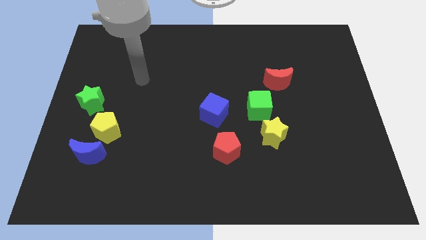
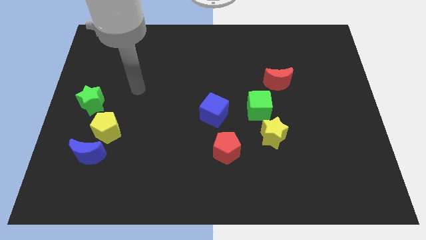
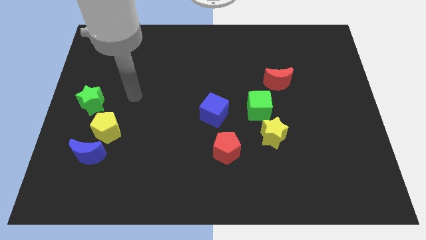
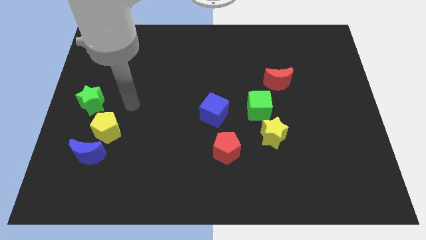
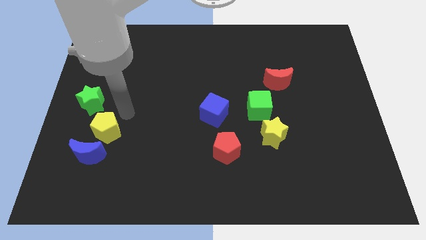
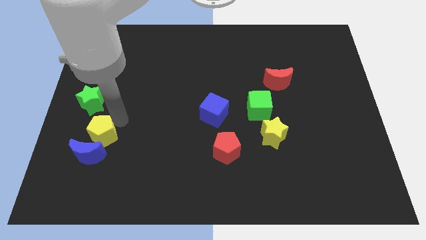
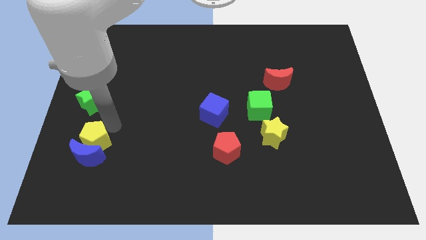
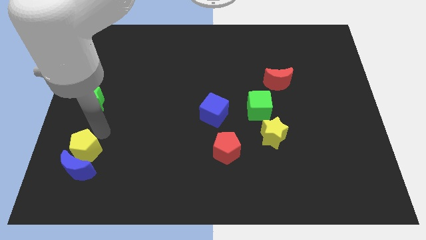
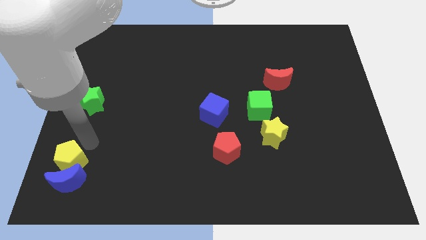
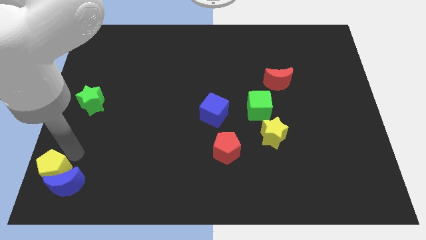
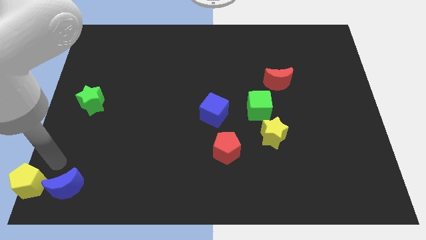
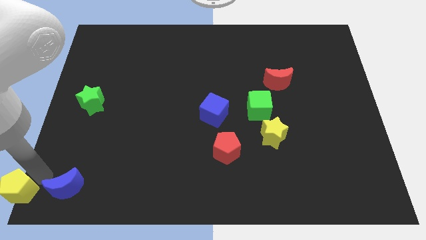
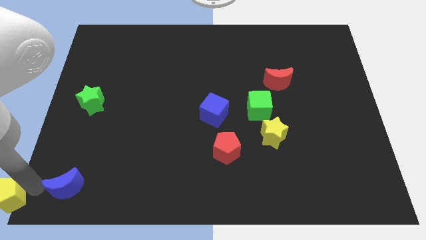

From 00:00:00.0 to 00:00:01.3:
move the blue moon away from the yellow pentagon

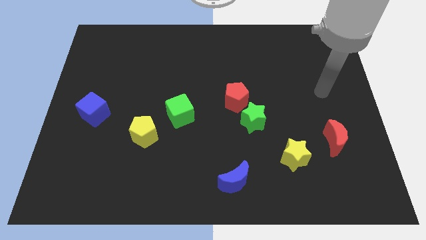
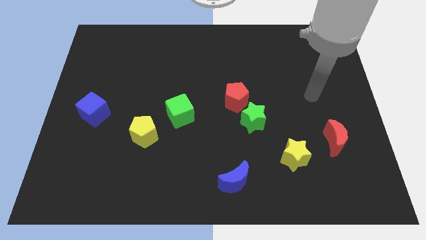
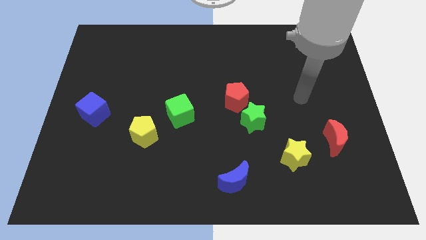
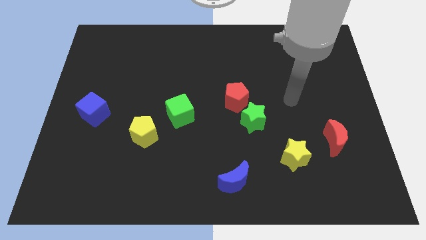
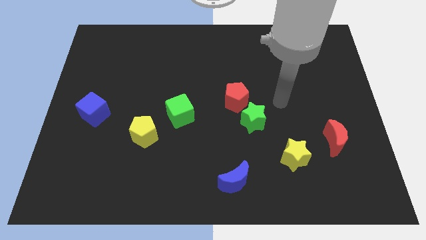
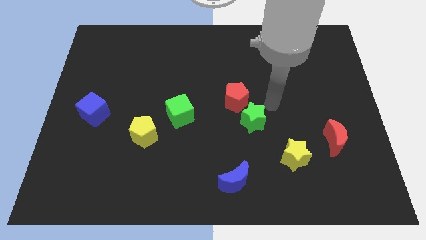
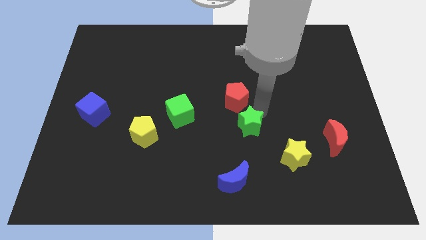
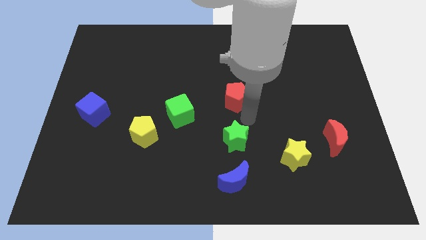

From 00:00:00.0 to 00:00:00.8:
separate the red pentagon from the green star

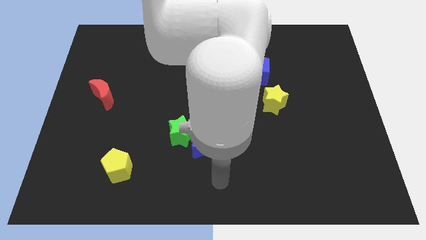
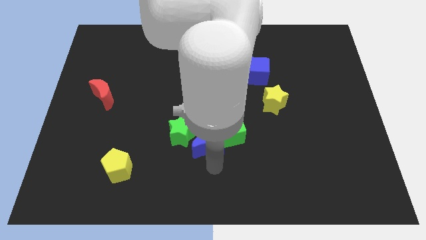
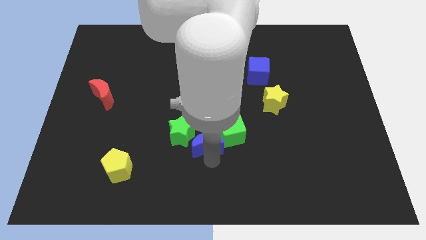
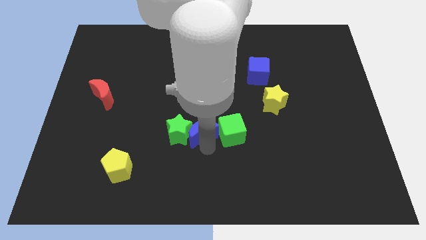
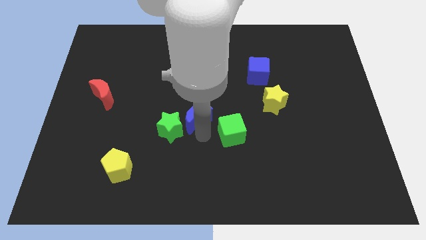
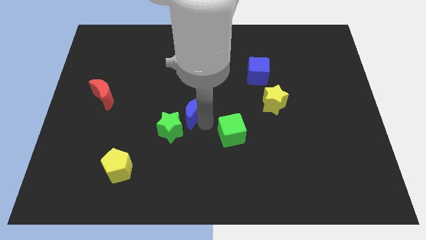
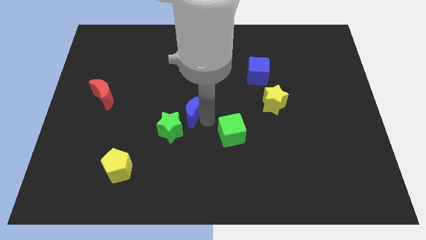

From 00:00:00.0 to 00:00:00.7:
pull the green cube apart from the blue moon

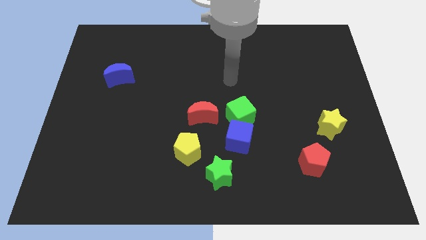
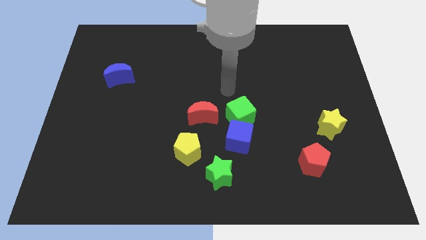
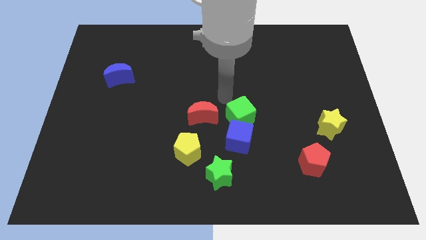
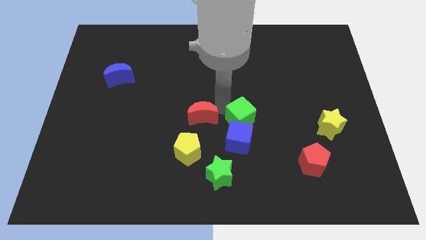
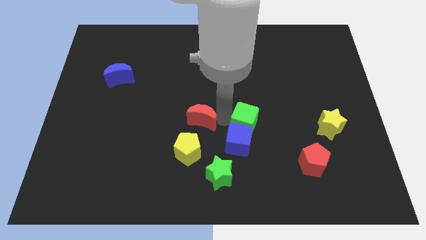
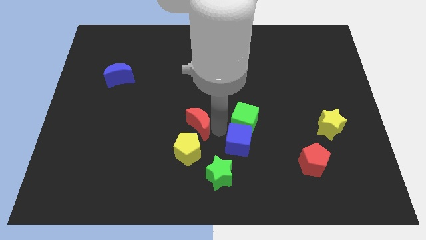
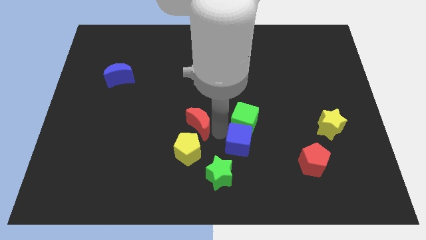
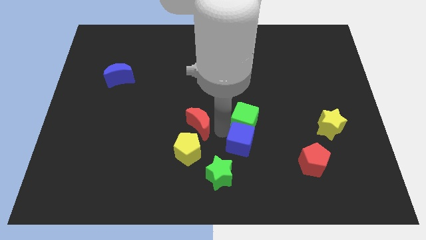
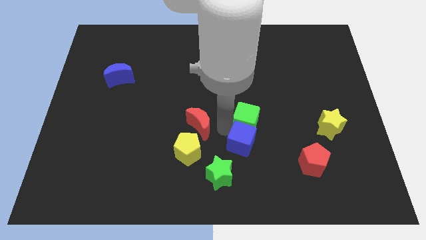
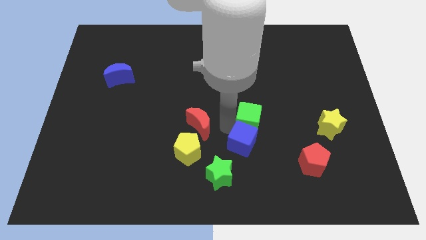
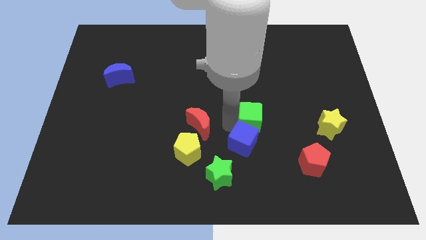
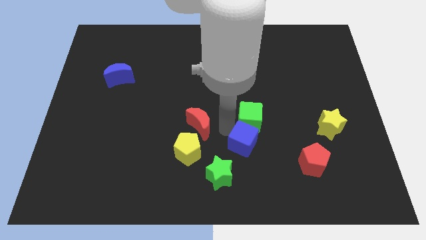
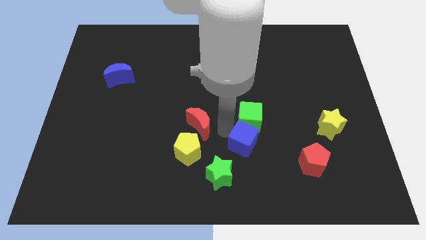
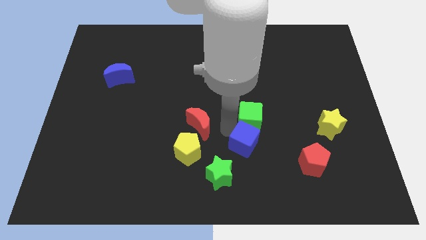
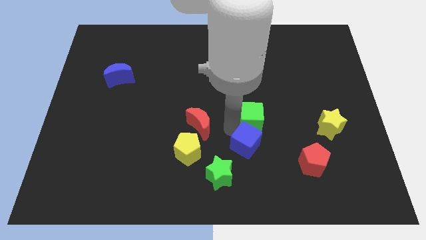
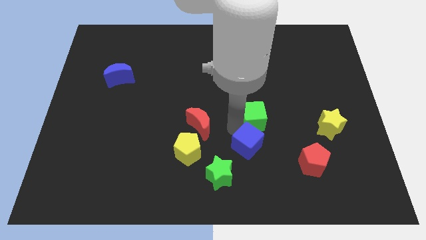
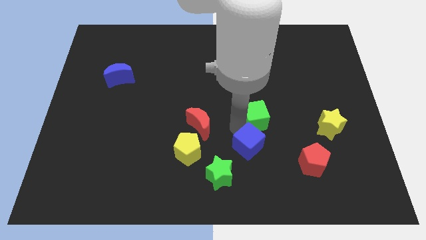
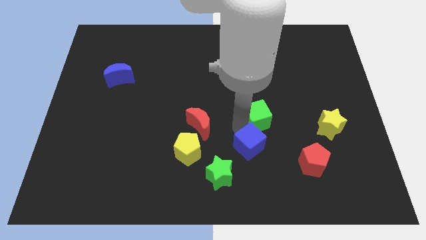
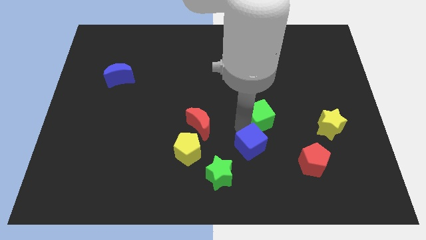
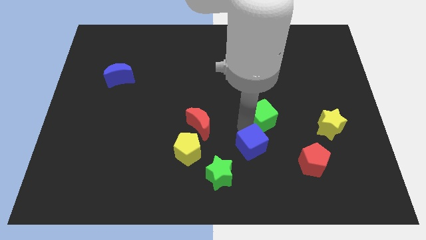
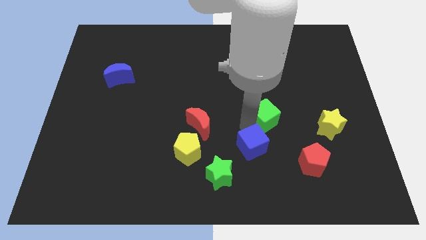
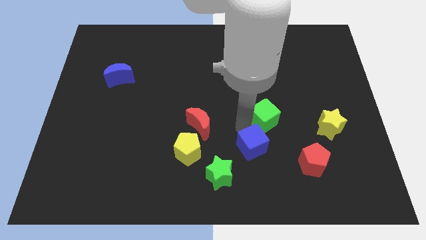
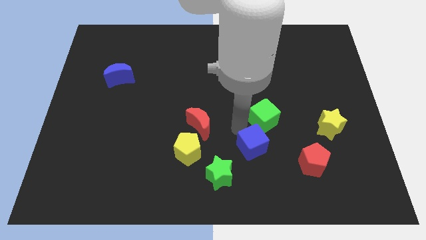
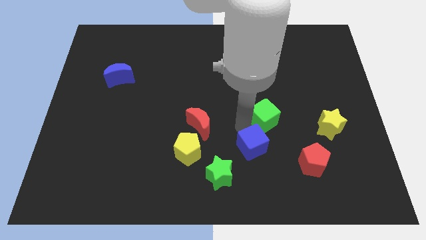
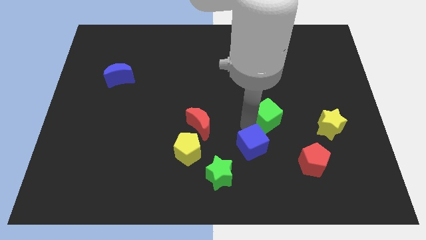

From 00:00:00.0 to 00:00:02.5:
pull the green cube apart from the blue cube and red moon

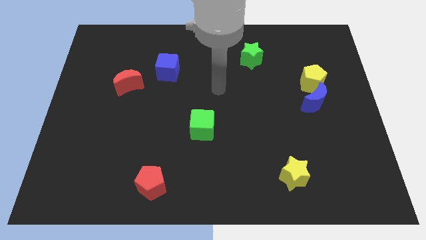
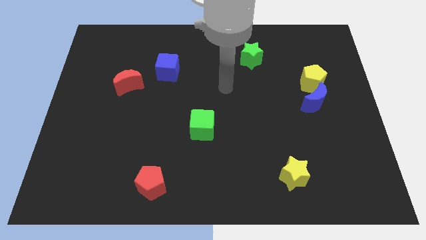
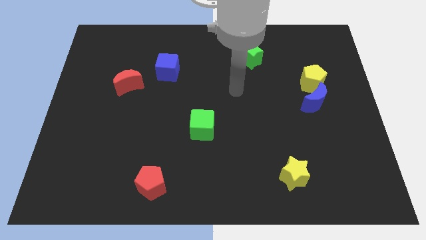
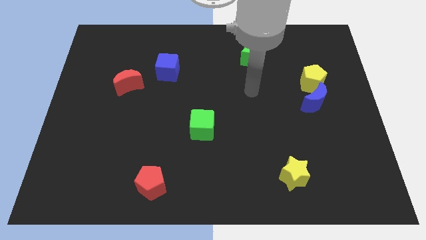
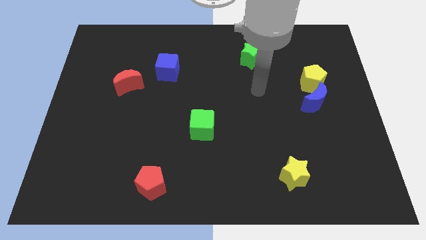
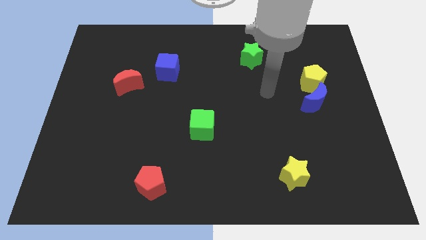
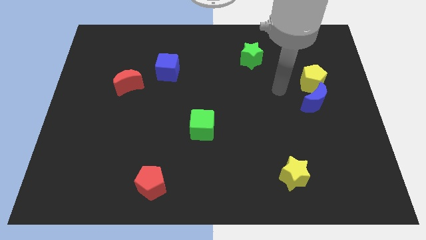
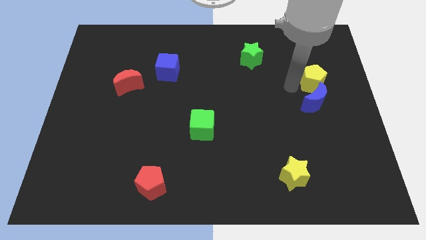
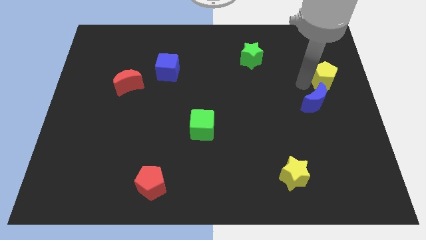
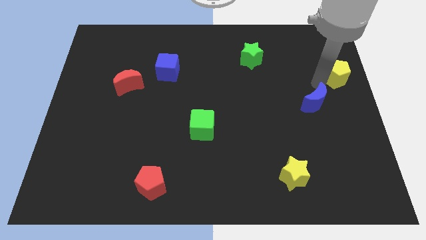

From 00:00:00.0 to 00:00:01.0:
pull the blue moon apart from the yellow pentagon

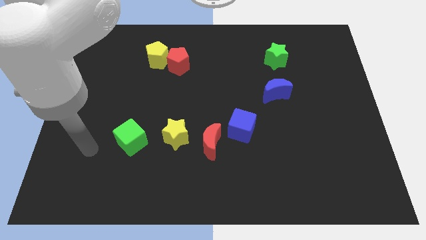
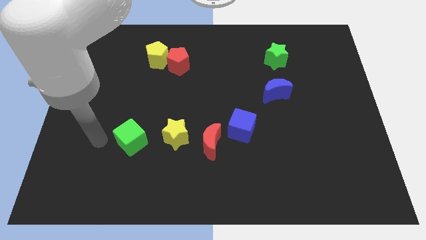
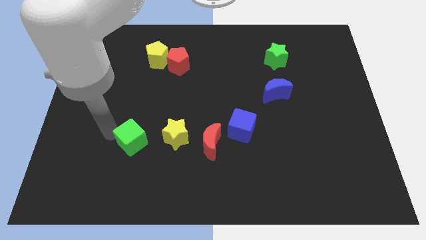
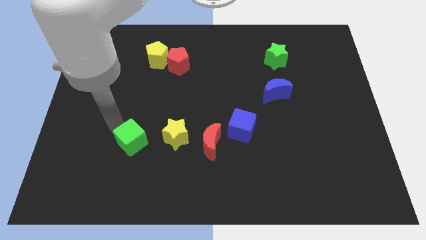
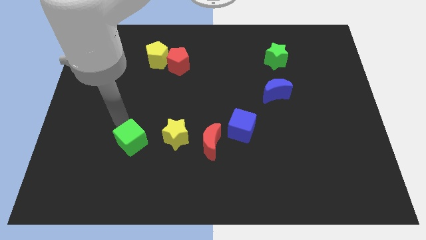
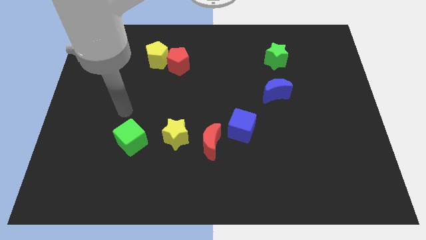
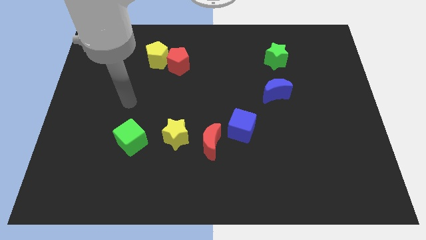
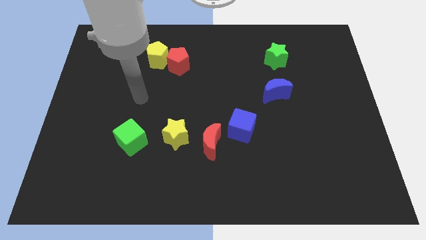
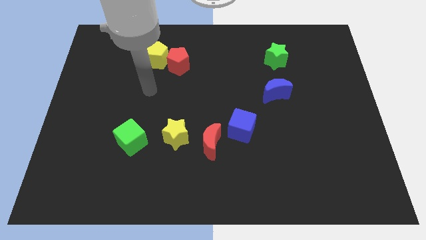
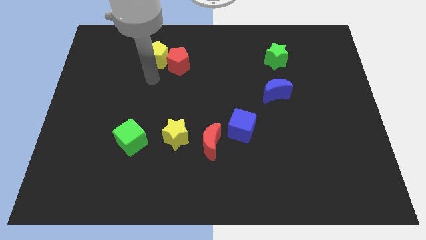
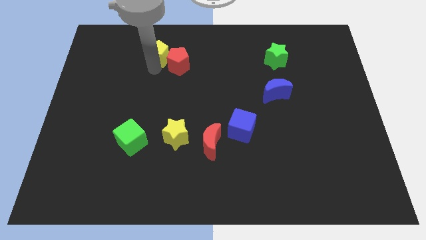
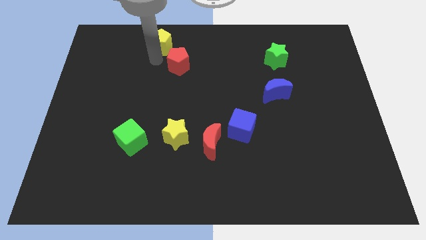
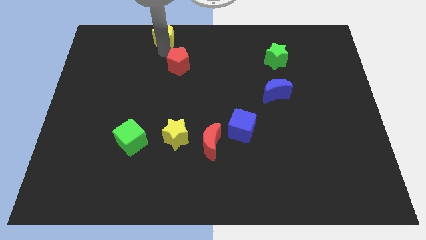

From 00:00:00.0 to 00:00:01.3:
move the red pentagon away from the yellow pentagon

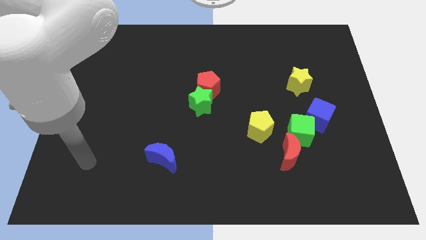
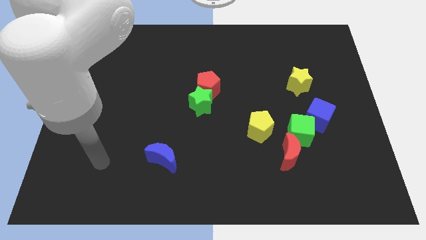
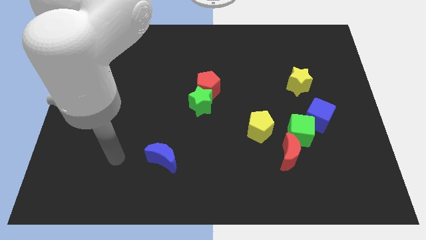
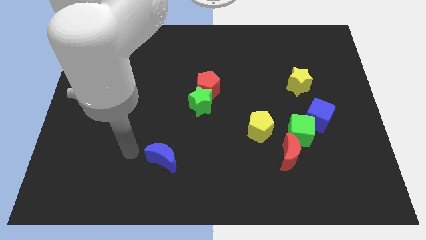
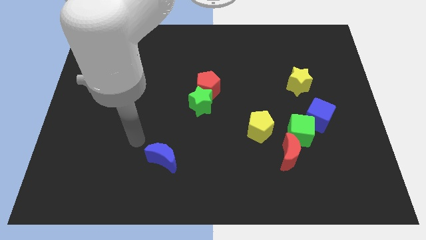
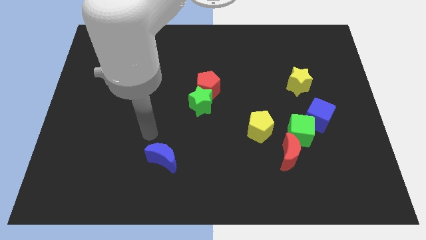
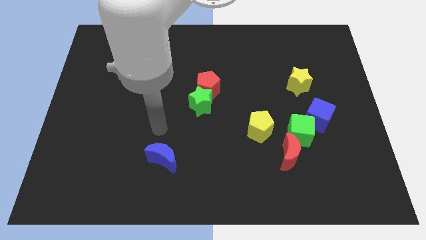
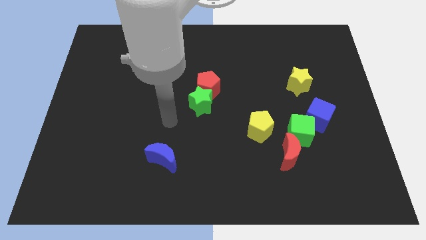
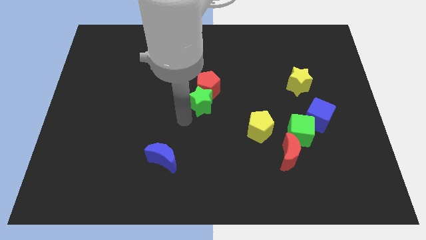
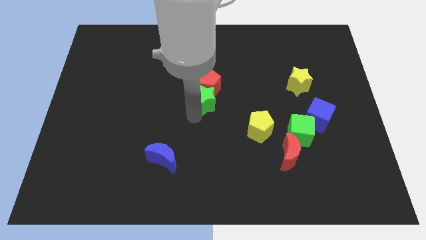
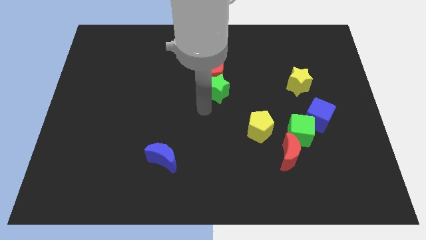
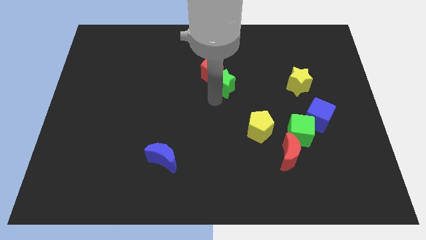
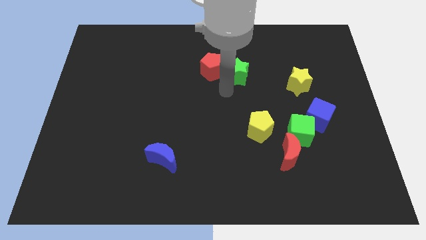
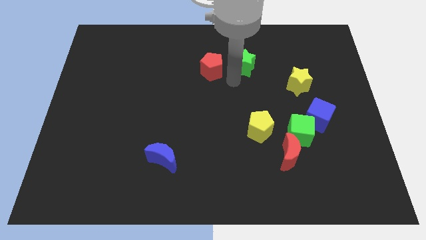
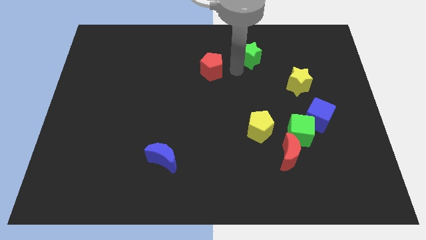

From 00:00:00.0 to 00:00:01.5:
pull the red pentagon apart from the green star

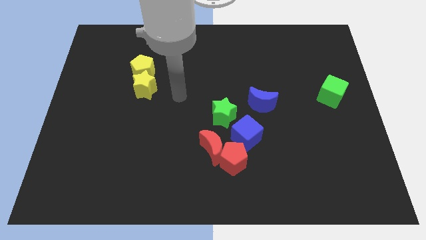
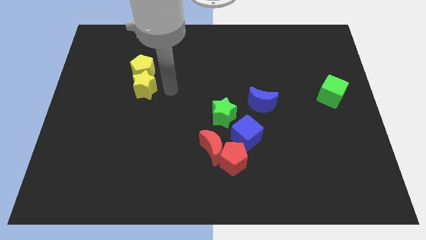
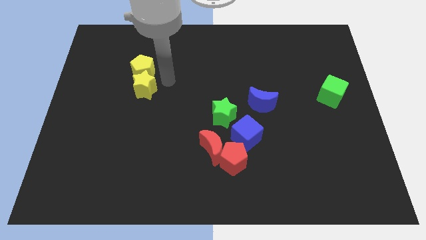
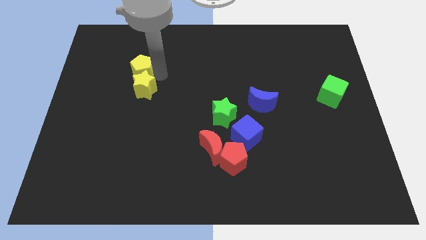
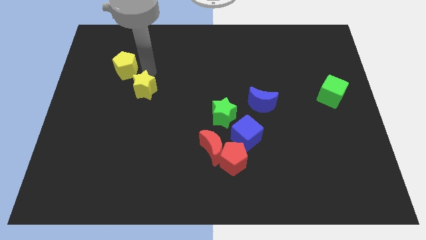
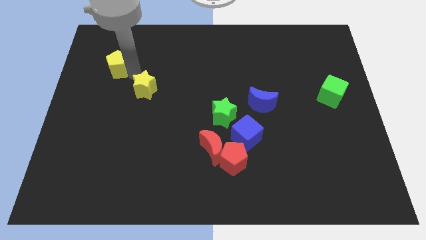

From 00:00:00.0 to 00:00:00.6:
separate the yellow star from the yellow pentagon
